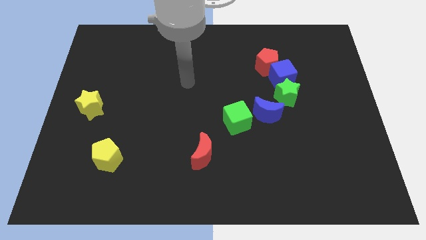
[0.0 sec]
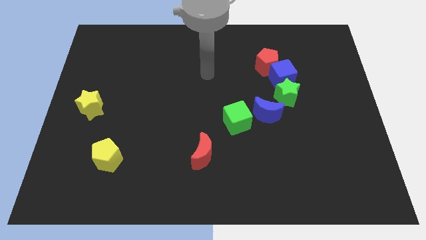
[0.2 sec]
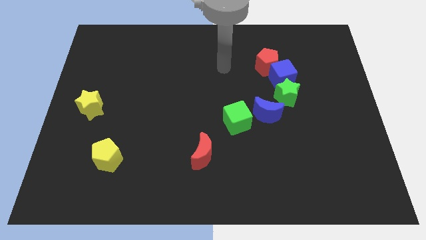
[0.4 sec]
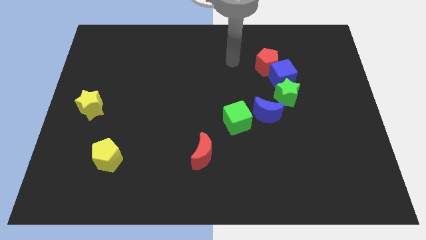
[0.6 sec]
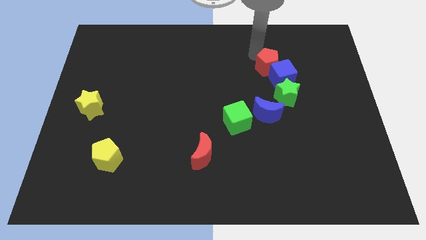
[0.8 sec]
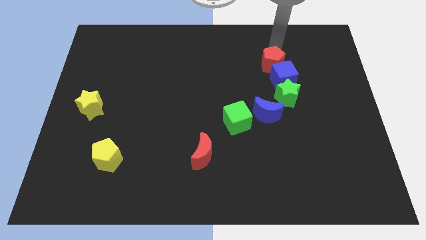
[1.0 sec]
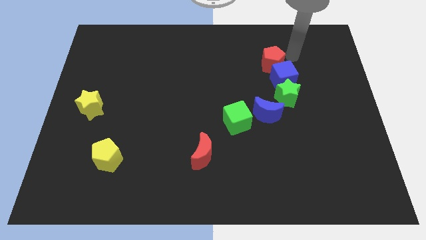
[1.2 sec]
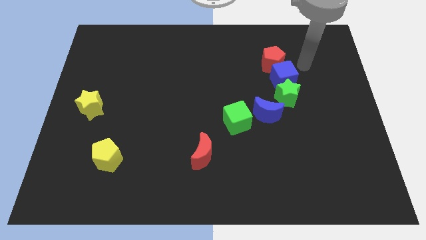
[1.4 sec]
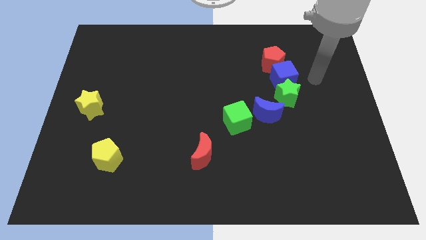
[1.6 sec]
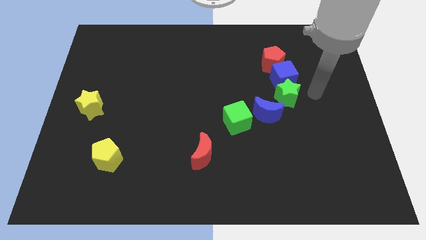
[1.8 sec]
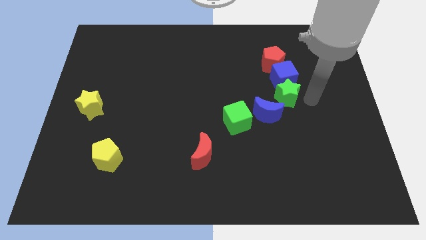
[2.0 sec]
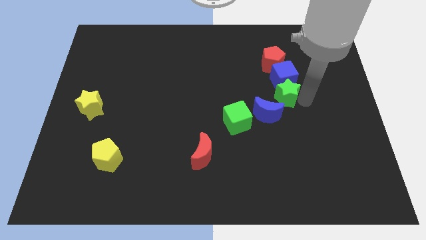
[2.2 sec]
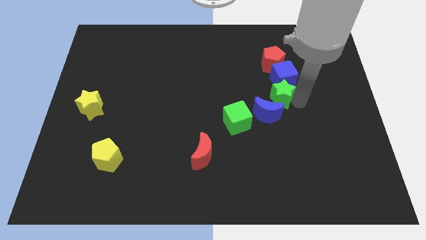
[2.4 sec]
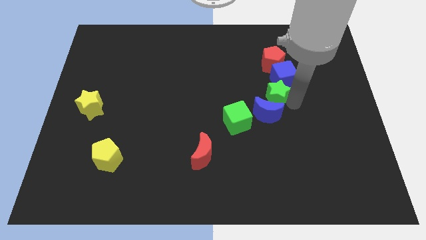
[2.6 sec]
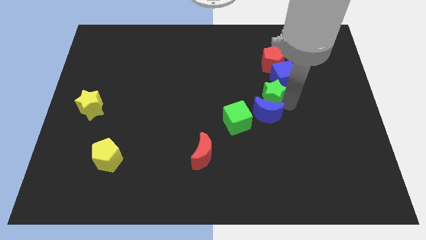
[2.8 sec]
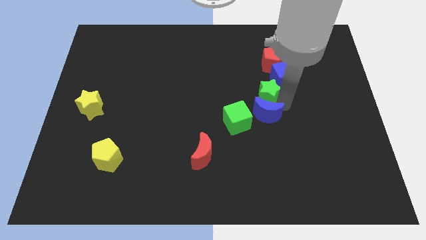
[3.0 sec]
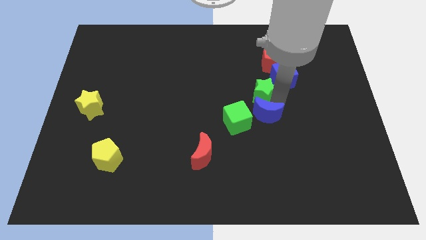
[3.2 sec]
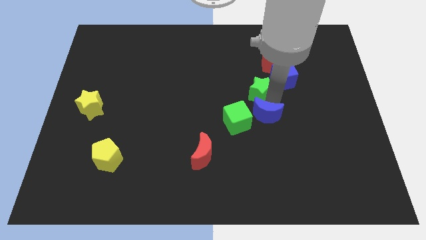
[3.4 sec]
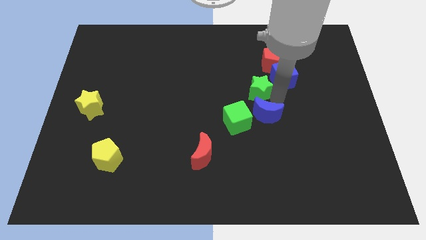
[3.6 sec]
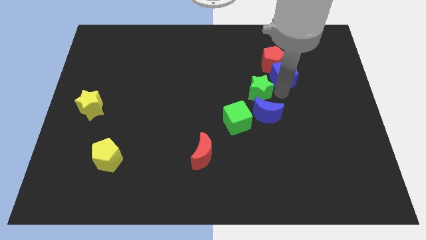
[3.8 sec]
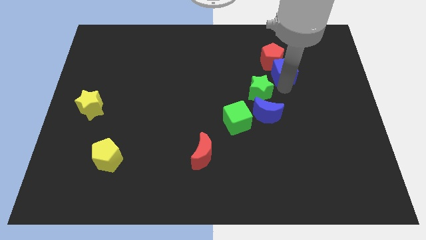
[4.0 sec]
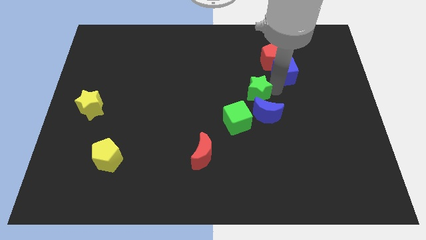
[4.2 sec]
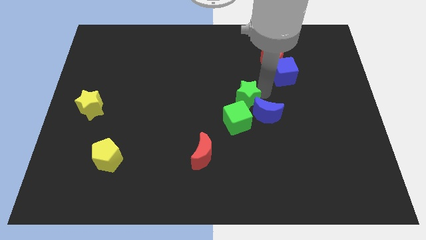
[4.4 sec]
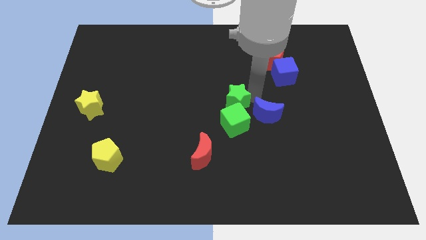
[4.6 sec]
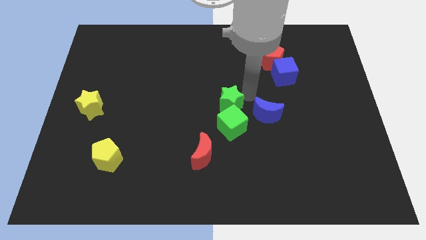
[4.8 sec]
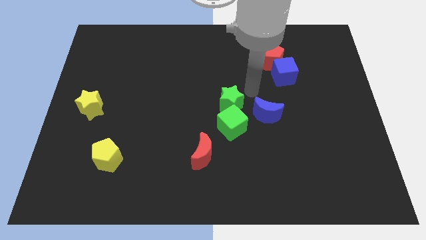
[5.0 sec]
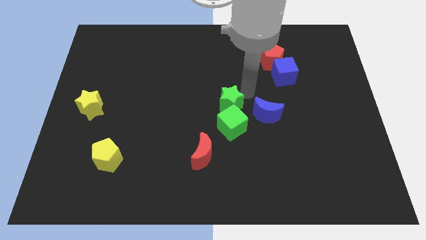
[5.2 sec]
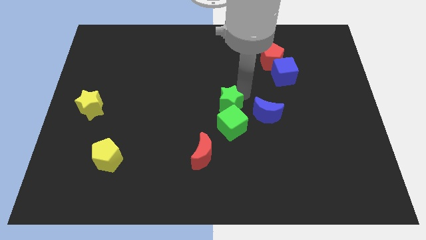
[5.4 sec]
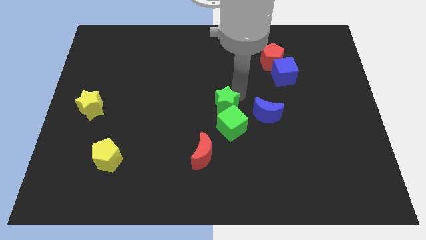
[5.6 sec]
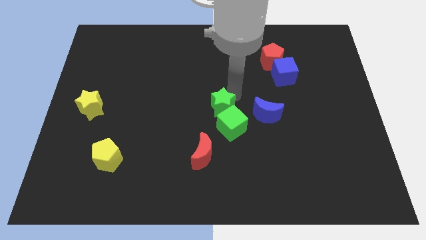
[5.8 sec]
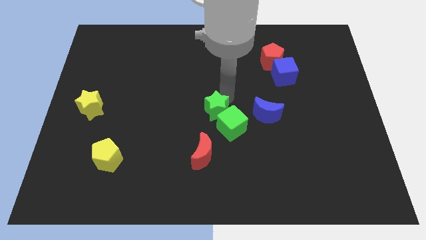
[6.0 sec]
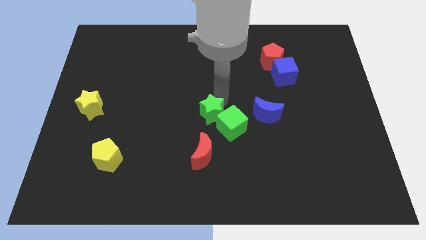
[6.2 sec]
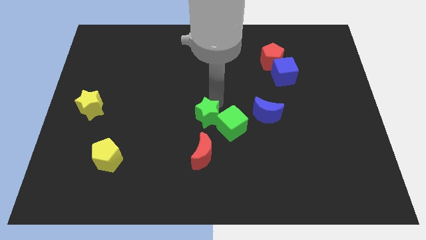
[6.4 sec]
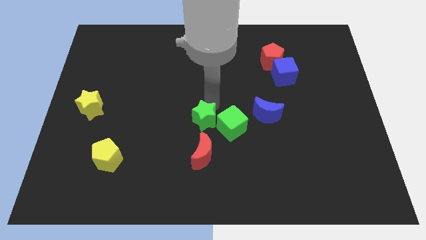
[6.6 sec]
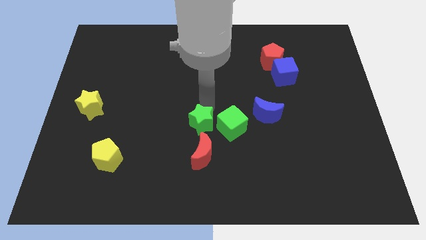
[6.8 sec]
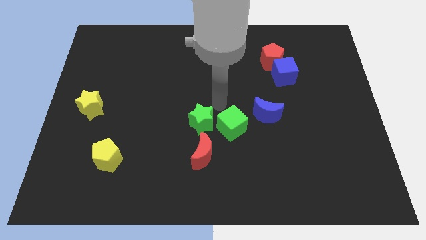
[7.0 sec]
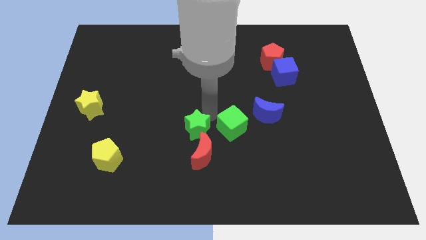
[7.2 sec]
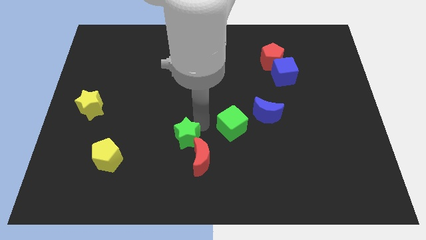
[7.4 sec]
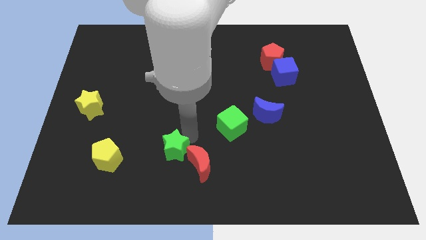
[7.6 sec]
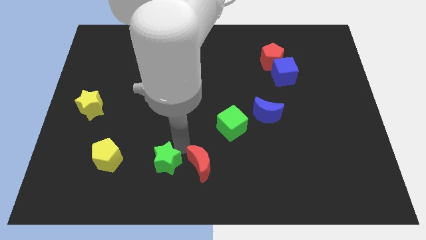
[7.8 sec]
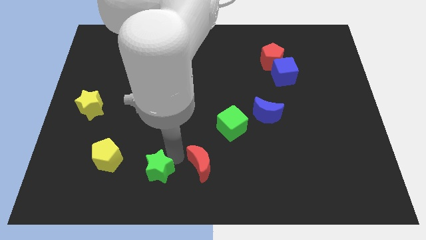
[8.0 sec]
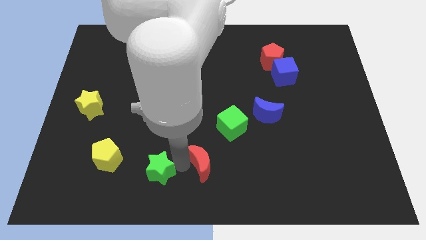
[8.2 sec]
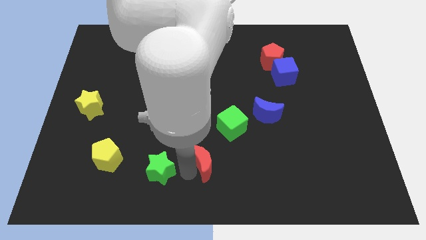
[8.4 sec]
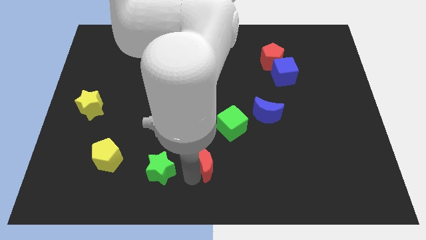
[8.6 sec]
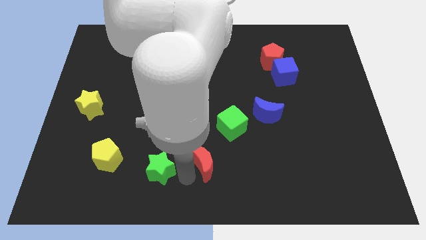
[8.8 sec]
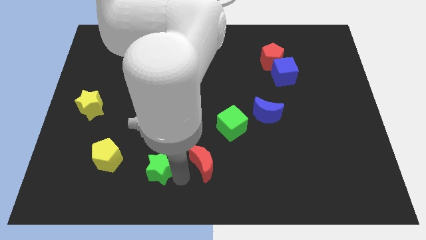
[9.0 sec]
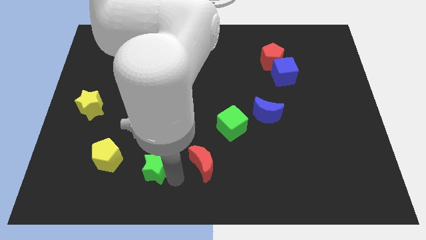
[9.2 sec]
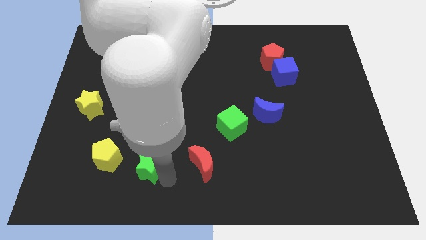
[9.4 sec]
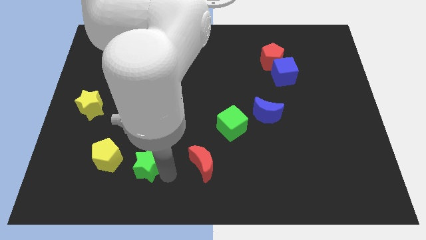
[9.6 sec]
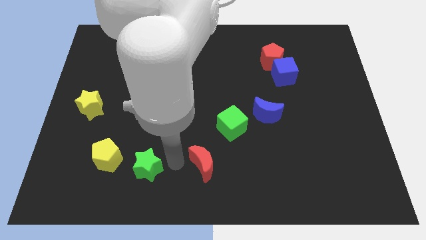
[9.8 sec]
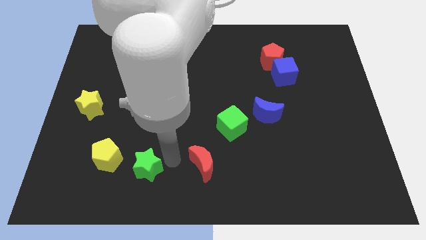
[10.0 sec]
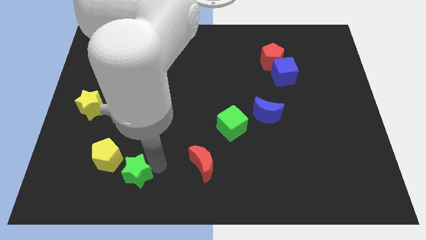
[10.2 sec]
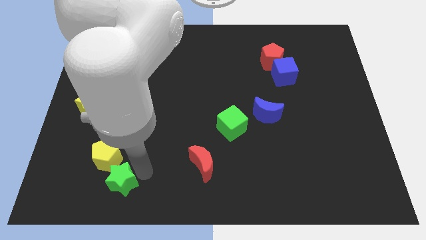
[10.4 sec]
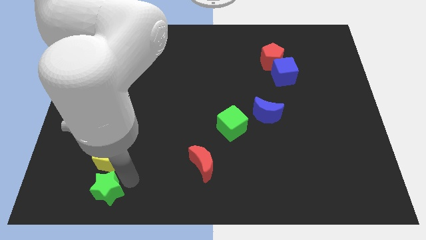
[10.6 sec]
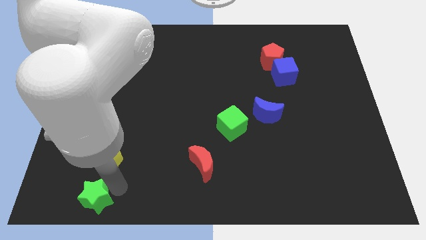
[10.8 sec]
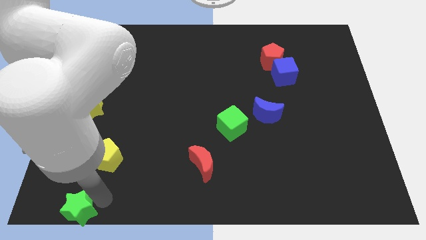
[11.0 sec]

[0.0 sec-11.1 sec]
slide the green star to the bottom left of the board

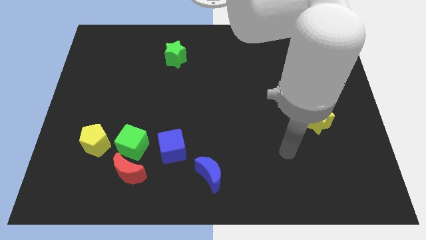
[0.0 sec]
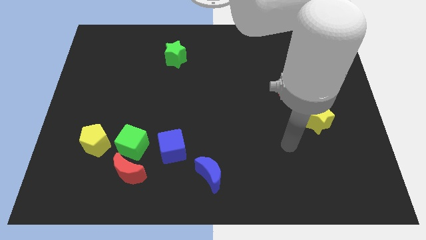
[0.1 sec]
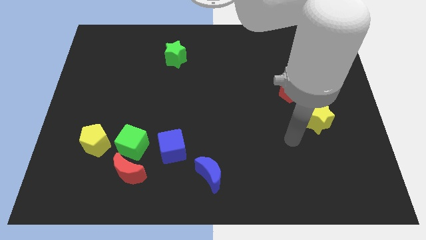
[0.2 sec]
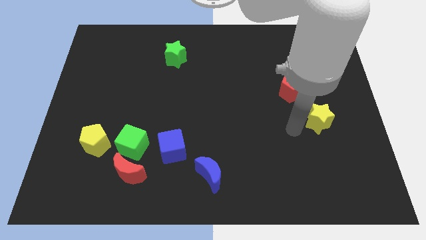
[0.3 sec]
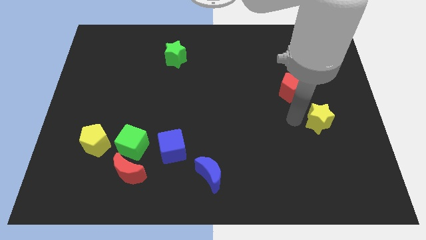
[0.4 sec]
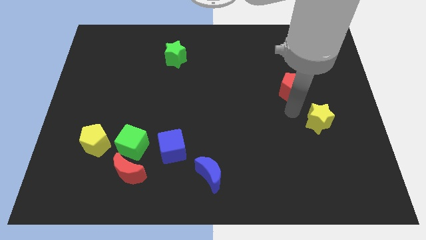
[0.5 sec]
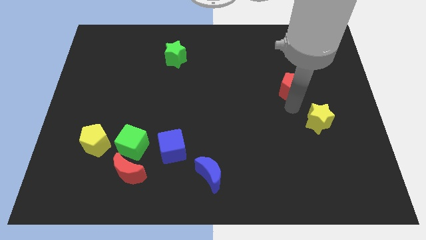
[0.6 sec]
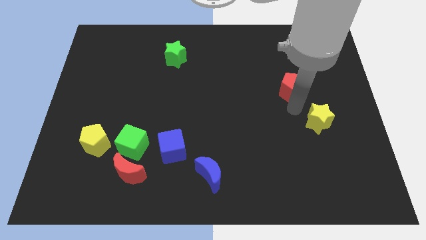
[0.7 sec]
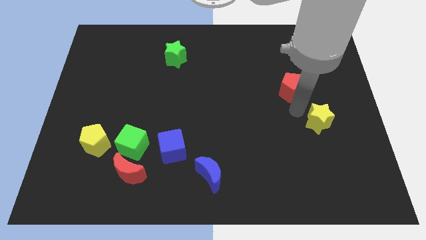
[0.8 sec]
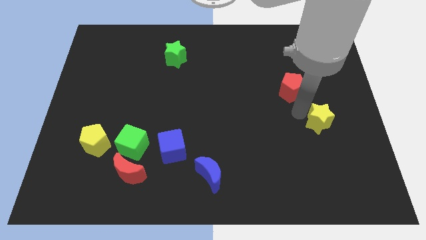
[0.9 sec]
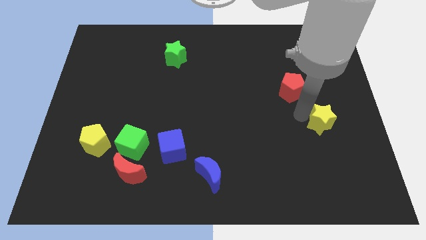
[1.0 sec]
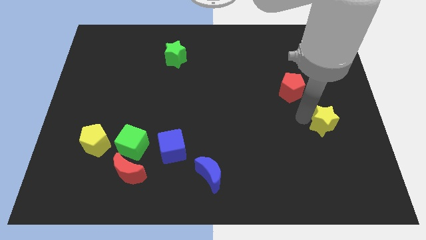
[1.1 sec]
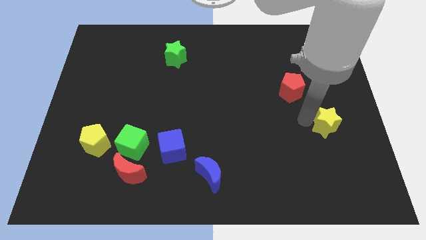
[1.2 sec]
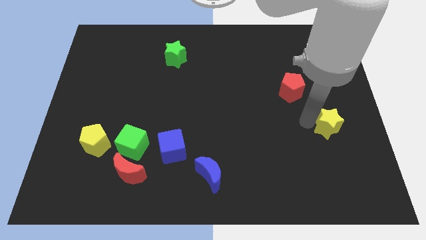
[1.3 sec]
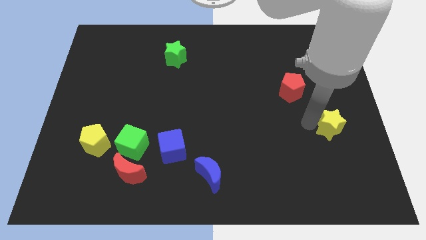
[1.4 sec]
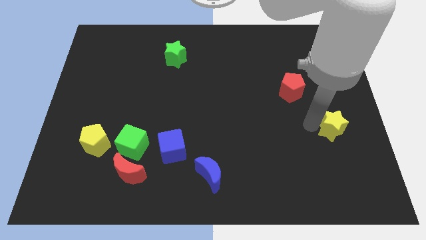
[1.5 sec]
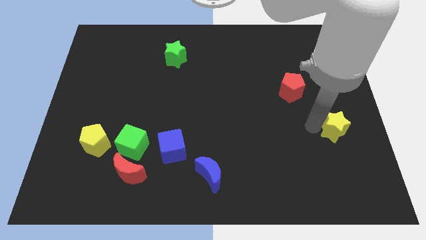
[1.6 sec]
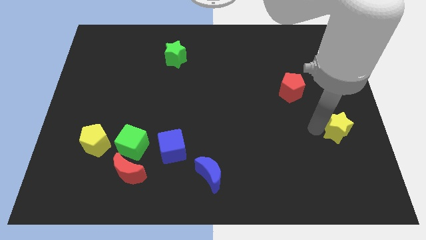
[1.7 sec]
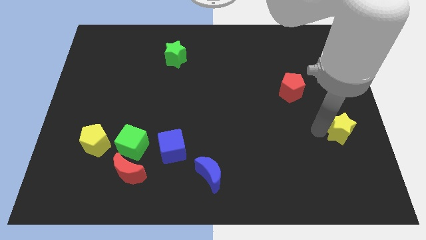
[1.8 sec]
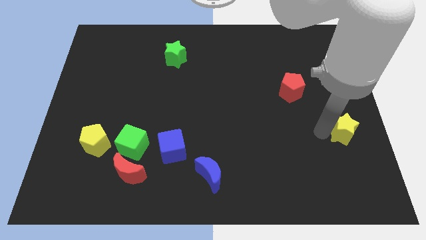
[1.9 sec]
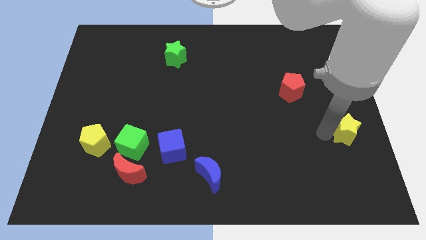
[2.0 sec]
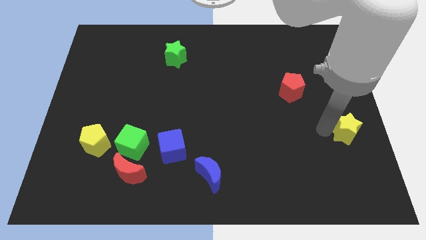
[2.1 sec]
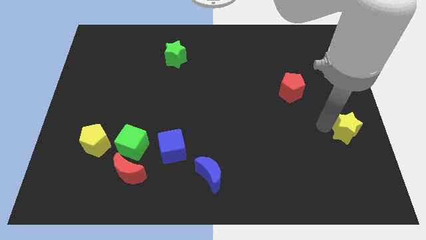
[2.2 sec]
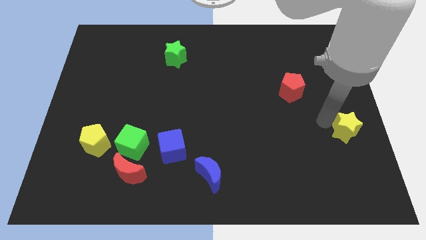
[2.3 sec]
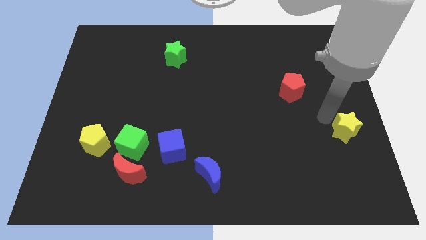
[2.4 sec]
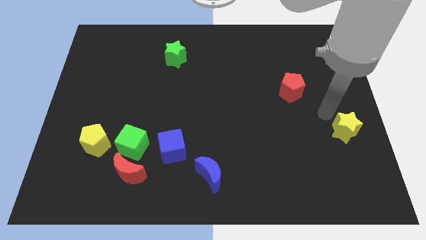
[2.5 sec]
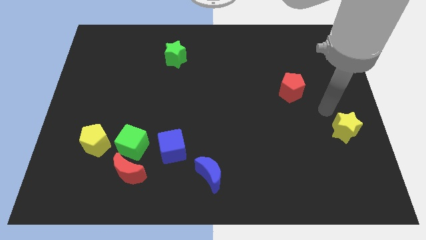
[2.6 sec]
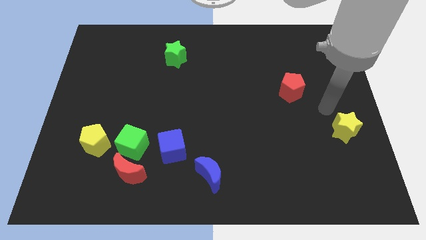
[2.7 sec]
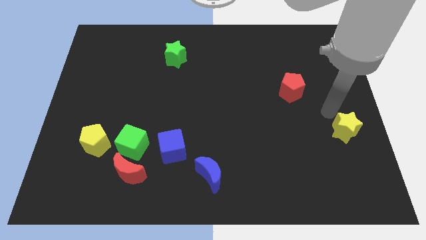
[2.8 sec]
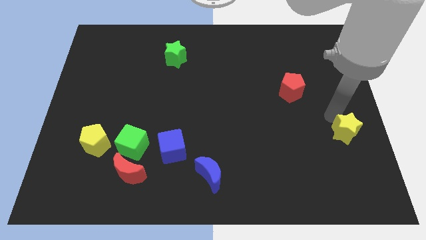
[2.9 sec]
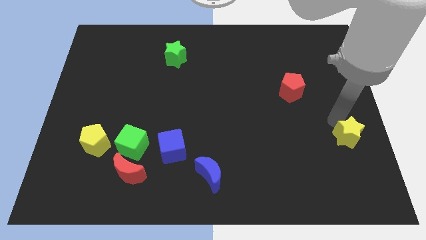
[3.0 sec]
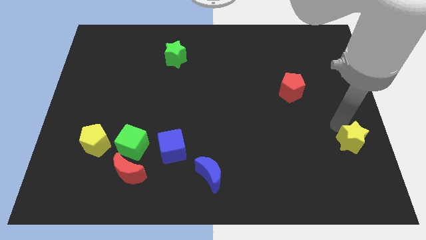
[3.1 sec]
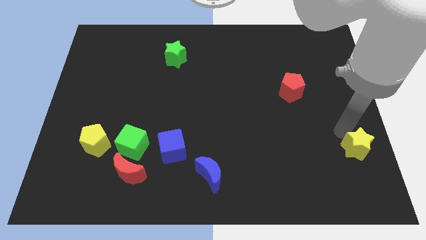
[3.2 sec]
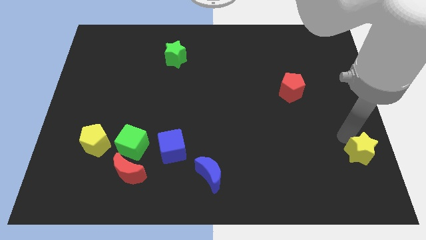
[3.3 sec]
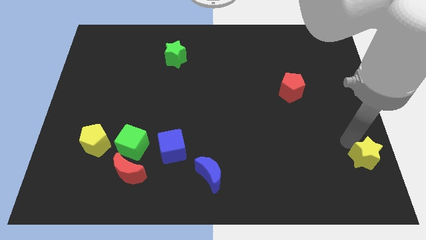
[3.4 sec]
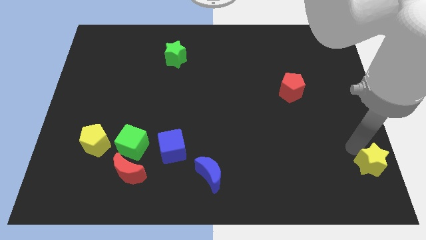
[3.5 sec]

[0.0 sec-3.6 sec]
put the yellow star to the lower right corner
